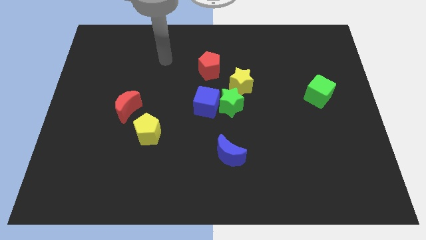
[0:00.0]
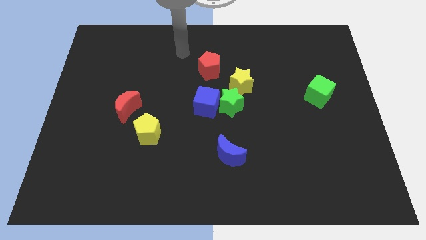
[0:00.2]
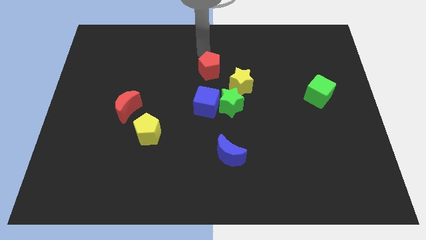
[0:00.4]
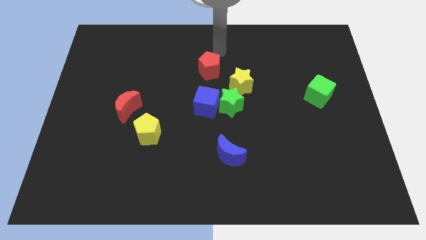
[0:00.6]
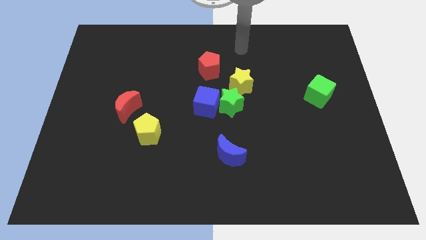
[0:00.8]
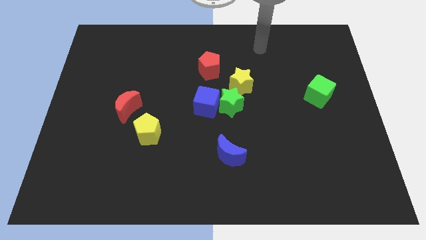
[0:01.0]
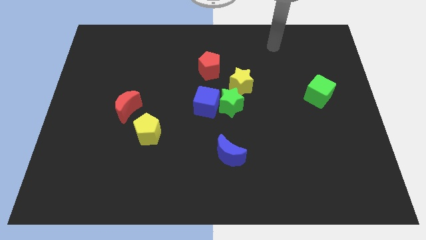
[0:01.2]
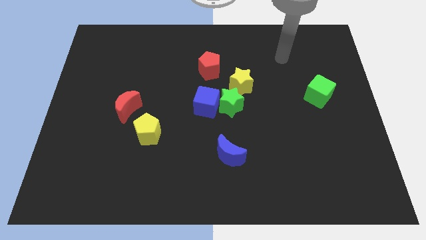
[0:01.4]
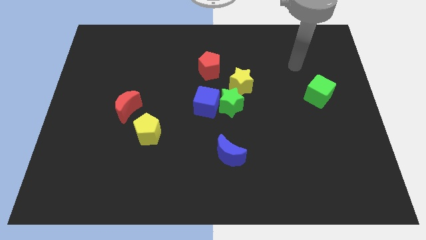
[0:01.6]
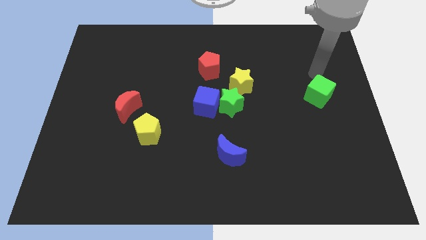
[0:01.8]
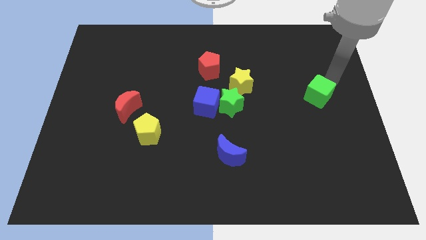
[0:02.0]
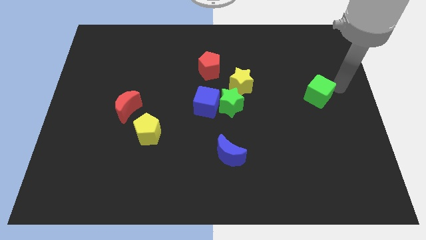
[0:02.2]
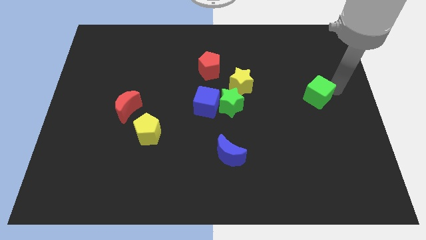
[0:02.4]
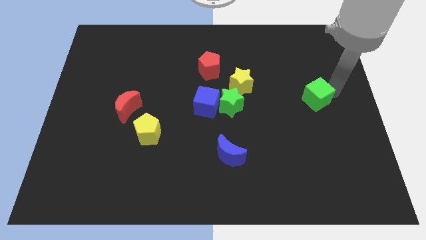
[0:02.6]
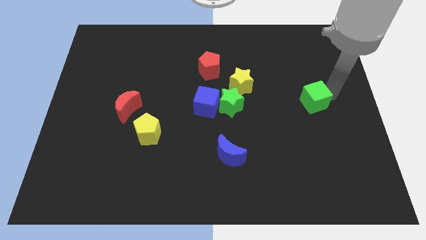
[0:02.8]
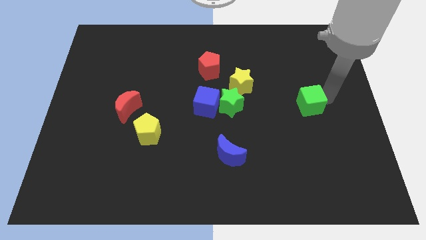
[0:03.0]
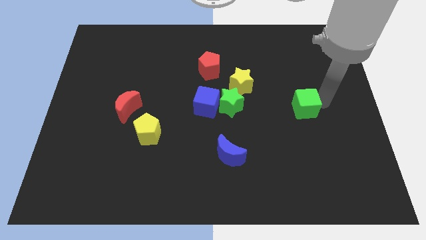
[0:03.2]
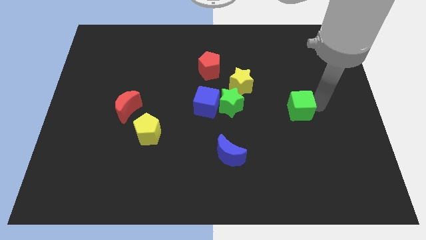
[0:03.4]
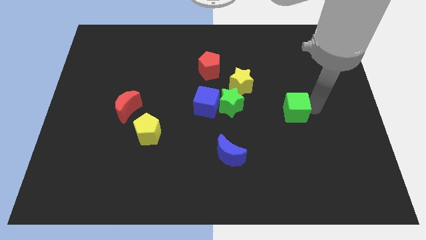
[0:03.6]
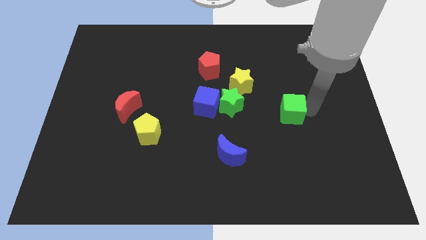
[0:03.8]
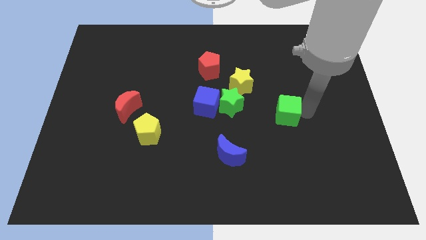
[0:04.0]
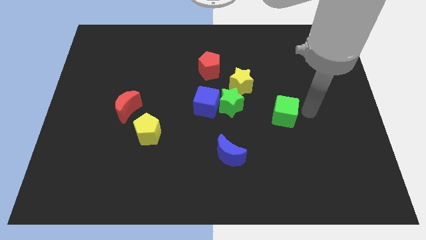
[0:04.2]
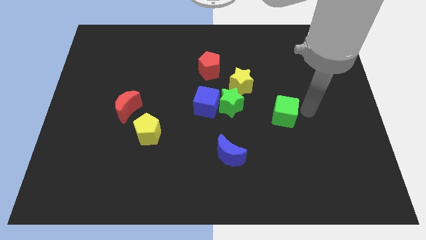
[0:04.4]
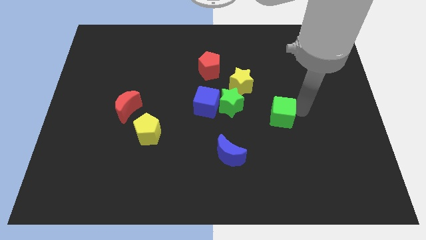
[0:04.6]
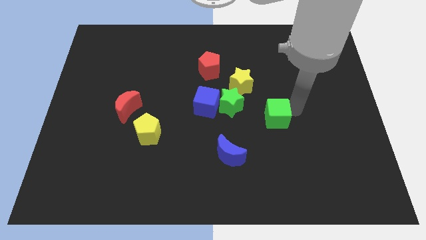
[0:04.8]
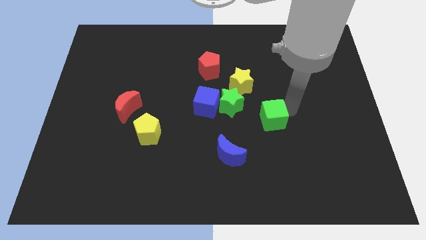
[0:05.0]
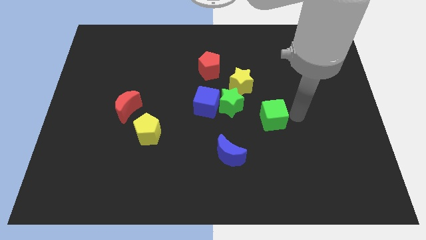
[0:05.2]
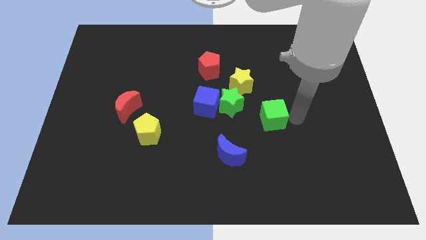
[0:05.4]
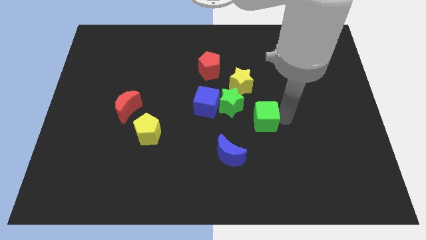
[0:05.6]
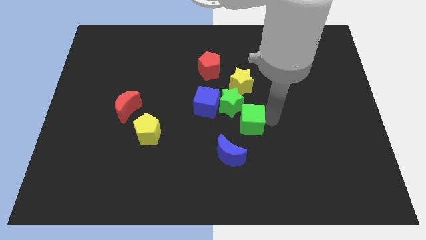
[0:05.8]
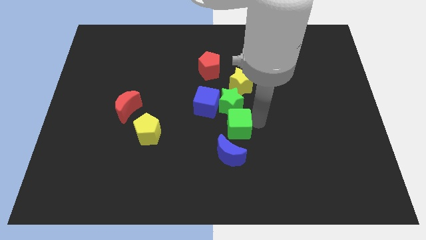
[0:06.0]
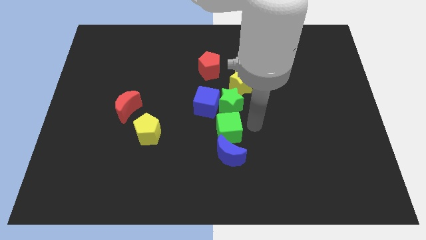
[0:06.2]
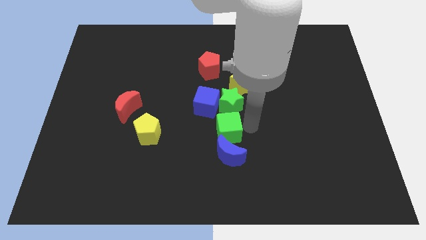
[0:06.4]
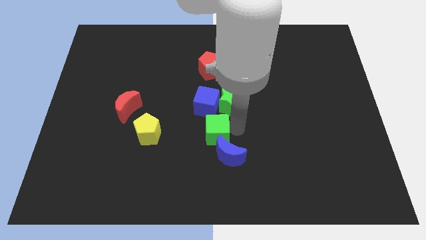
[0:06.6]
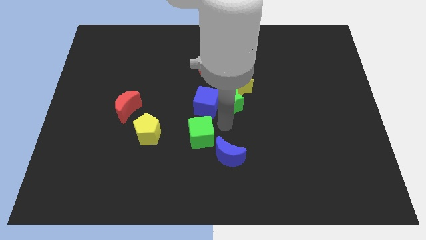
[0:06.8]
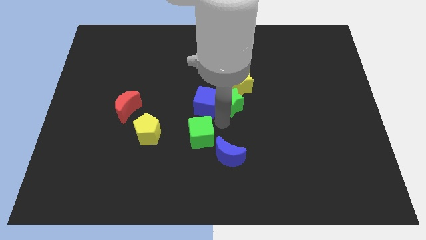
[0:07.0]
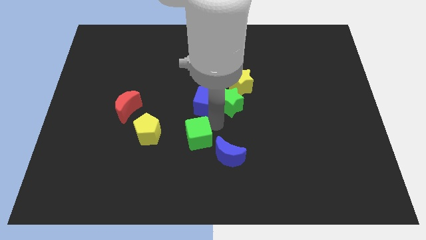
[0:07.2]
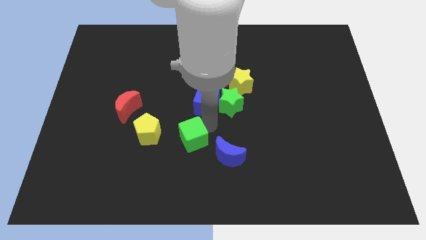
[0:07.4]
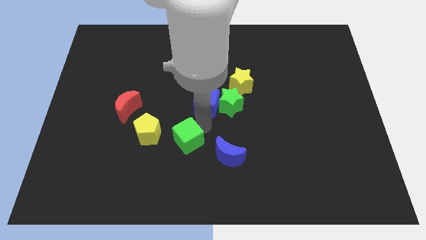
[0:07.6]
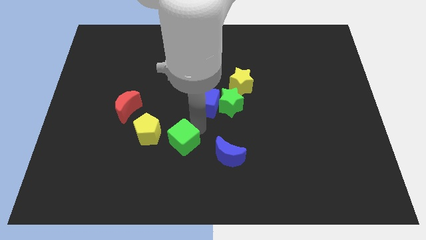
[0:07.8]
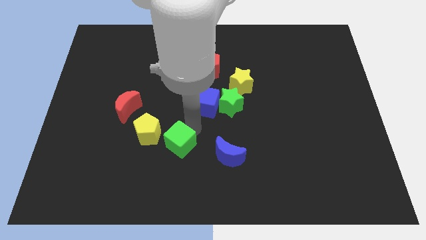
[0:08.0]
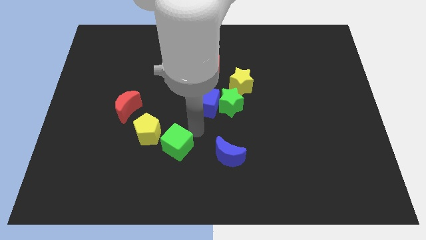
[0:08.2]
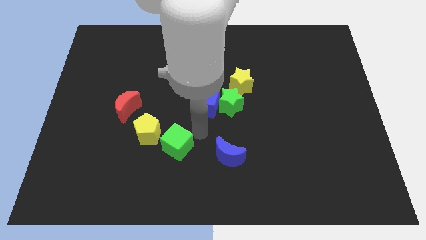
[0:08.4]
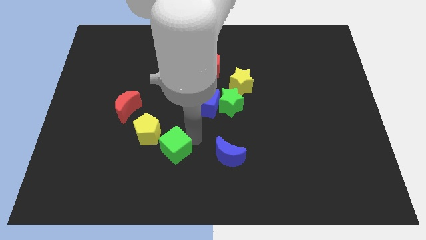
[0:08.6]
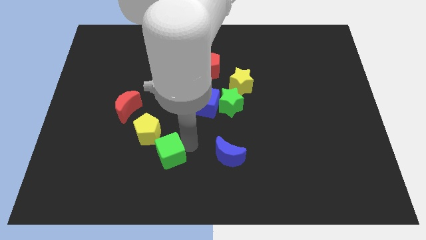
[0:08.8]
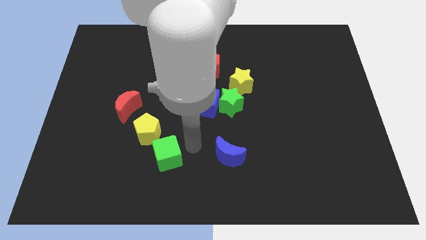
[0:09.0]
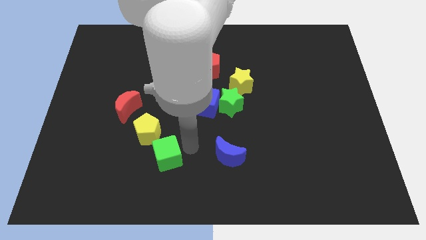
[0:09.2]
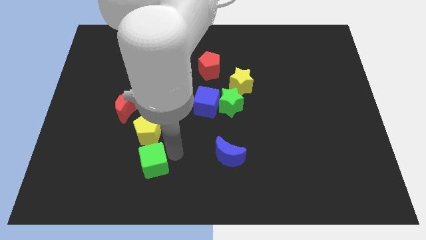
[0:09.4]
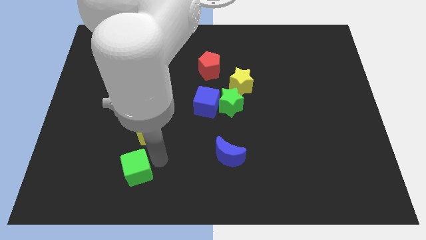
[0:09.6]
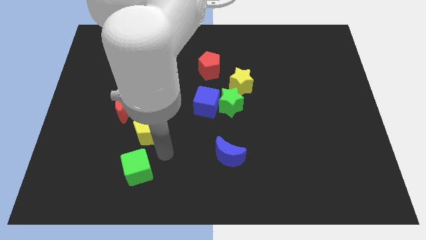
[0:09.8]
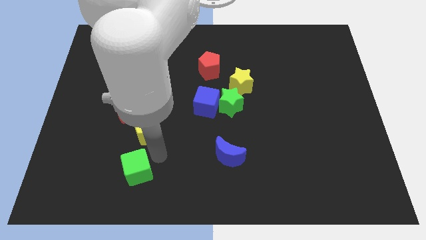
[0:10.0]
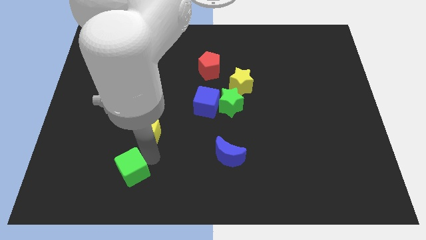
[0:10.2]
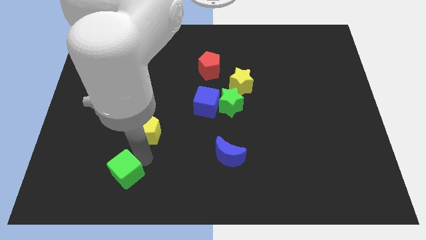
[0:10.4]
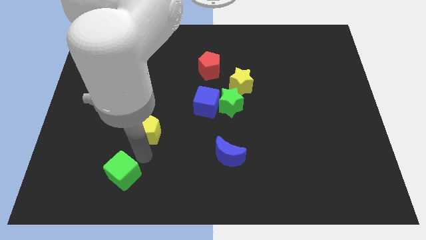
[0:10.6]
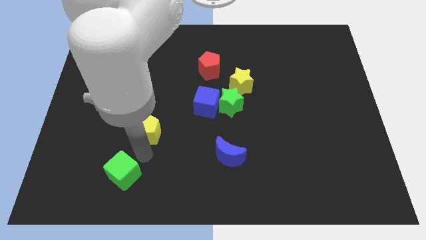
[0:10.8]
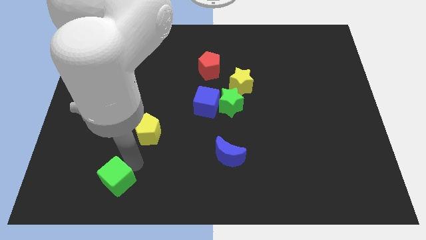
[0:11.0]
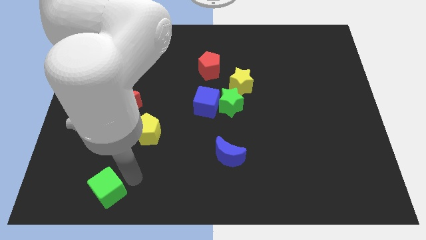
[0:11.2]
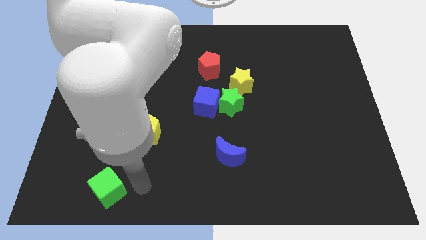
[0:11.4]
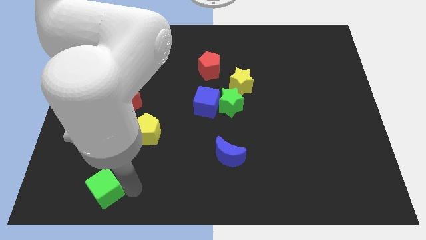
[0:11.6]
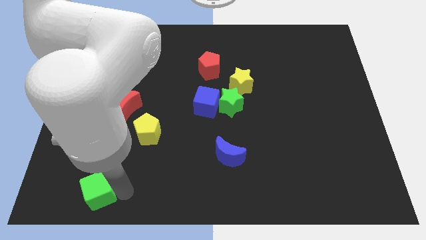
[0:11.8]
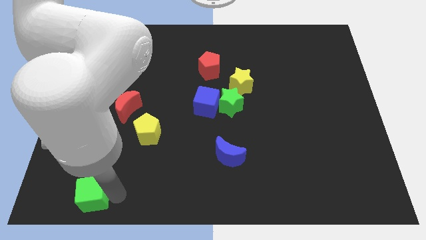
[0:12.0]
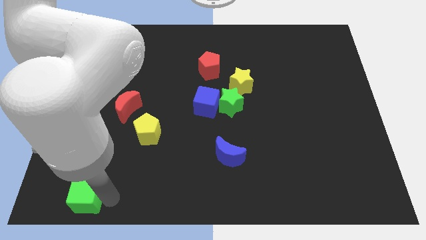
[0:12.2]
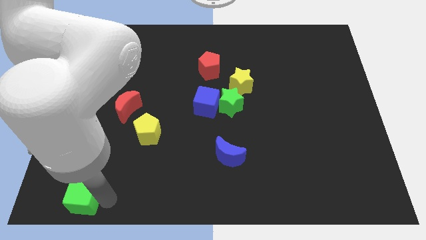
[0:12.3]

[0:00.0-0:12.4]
slide the green cube to the bottom left
